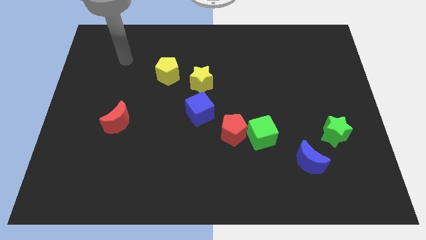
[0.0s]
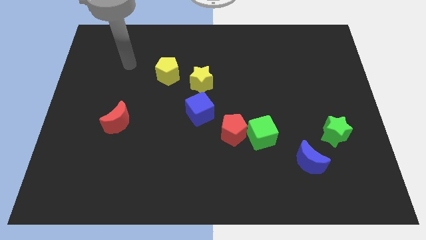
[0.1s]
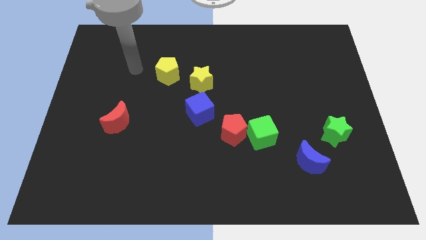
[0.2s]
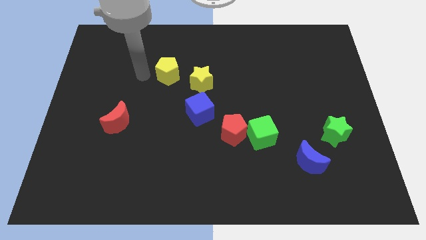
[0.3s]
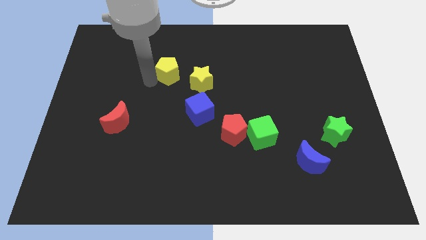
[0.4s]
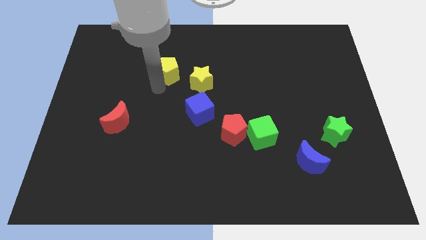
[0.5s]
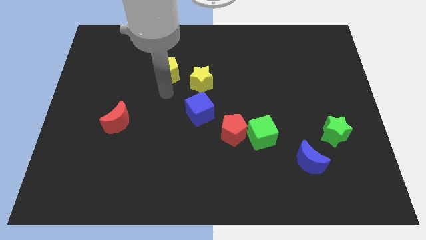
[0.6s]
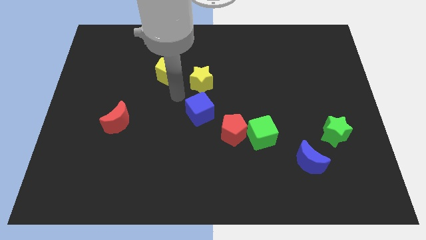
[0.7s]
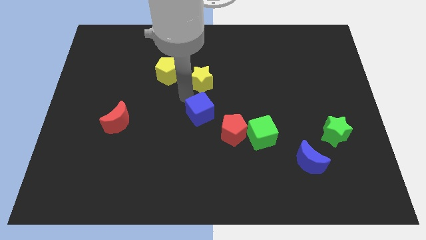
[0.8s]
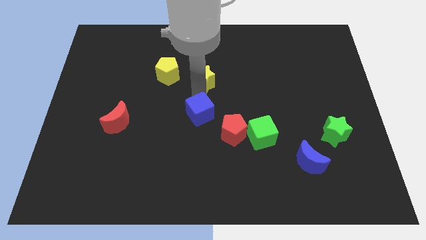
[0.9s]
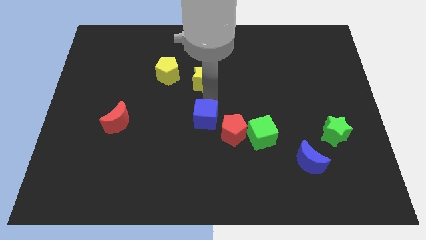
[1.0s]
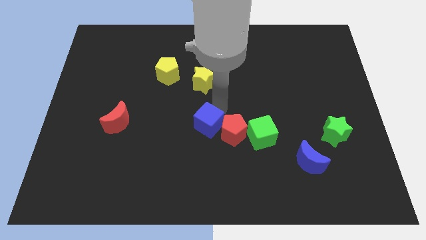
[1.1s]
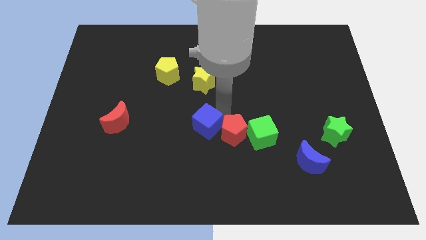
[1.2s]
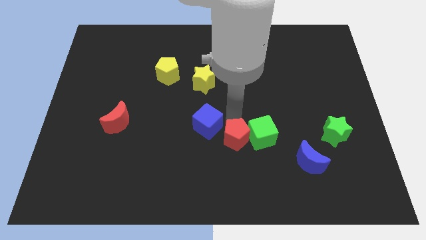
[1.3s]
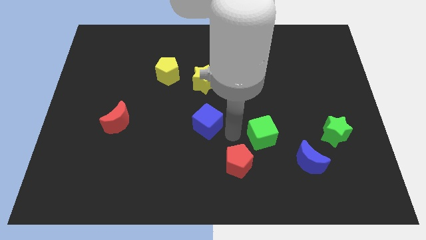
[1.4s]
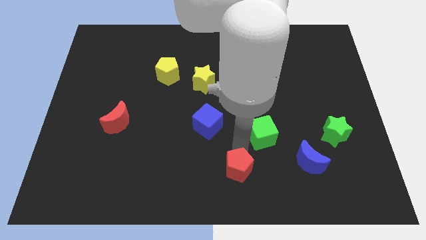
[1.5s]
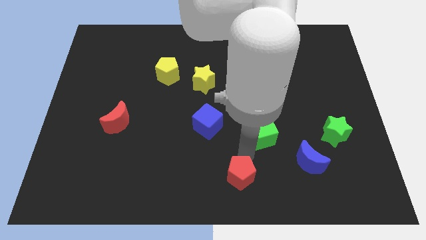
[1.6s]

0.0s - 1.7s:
move the green cube away from the red pentagon

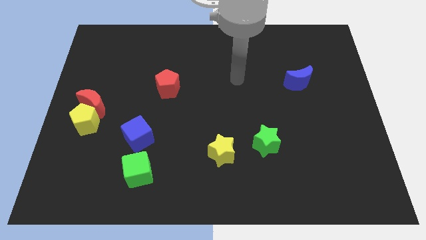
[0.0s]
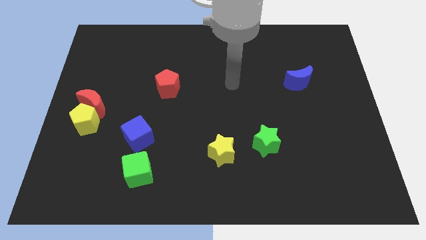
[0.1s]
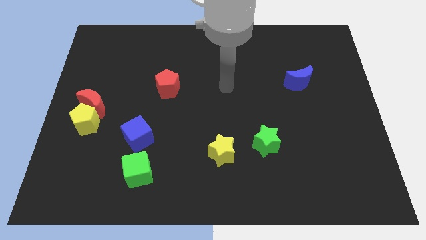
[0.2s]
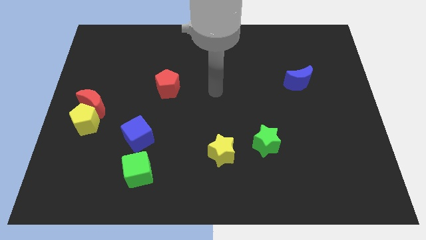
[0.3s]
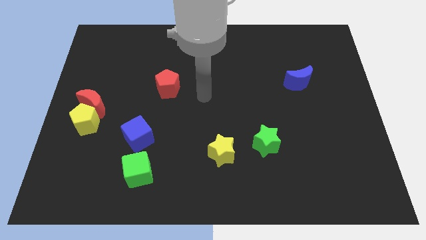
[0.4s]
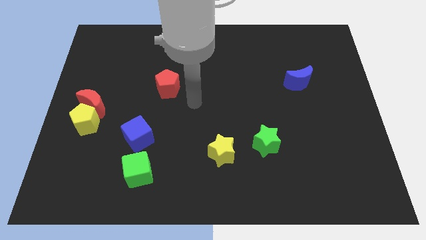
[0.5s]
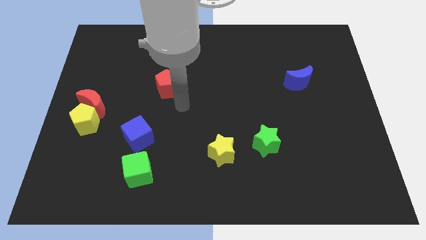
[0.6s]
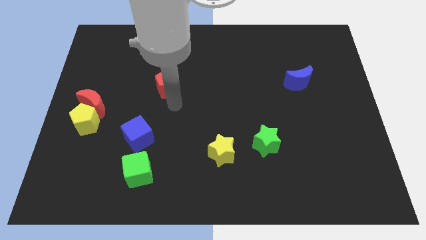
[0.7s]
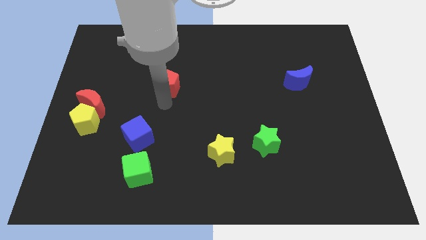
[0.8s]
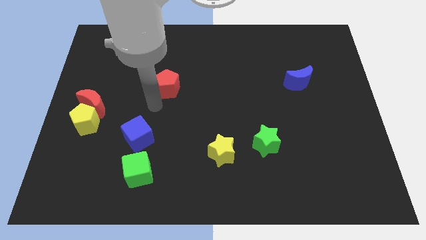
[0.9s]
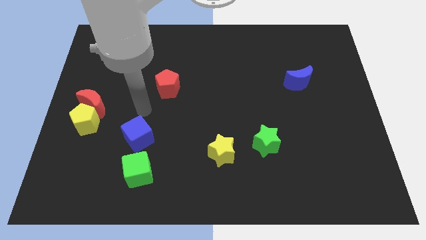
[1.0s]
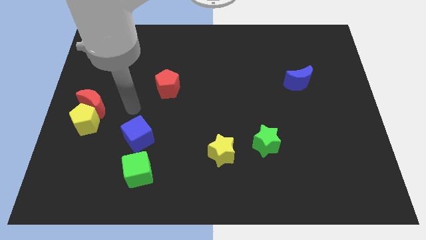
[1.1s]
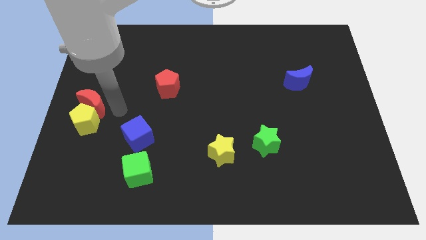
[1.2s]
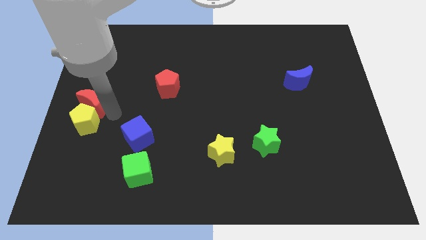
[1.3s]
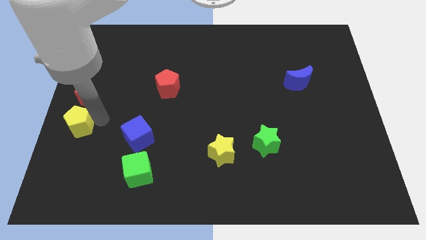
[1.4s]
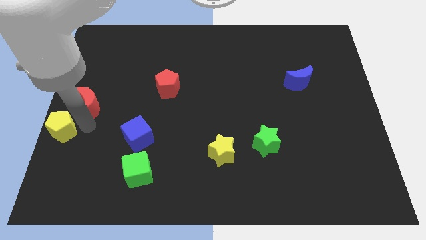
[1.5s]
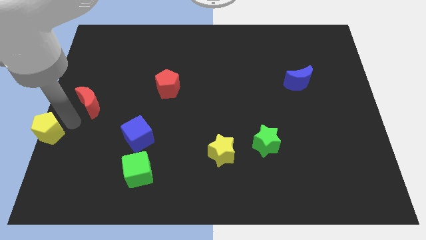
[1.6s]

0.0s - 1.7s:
pull the red moon apart from the yellow pentagon

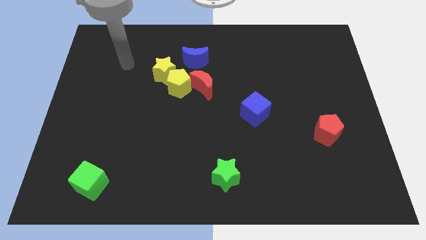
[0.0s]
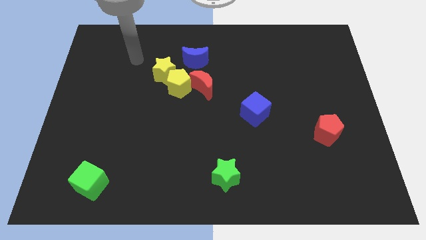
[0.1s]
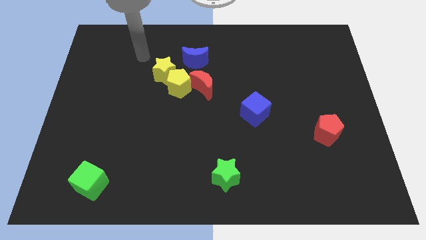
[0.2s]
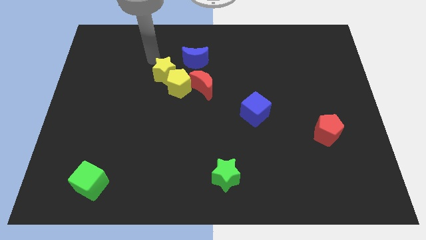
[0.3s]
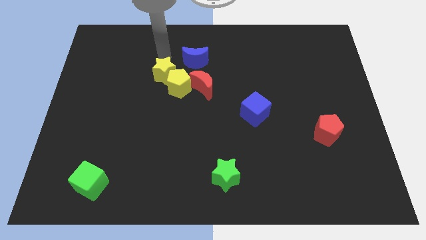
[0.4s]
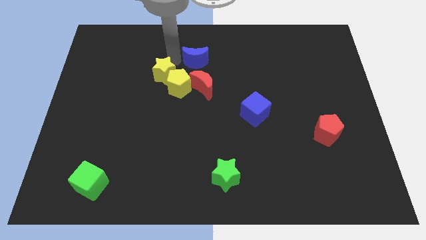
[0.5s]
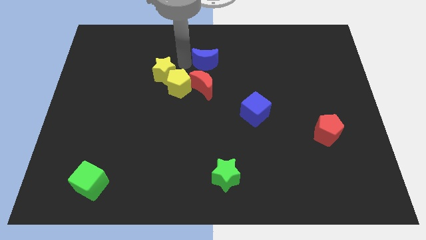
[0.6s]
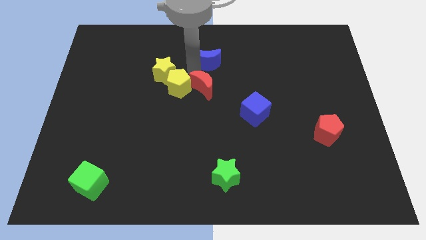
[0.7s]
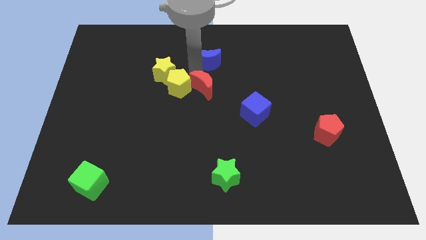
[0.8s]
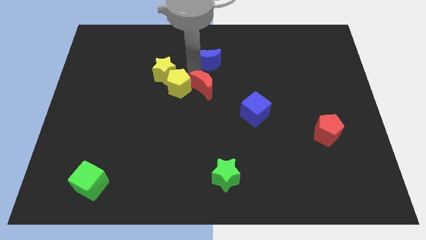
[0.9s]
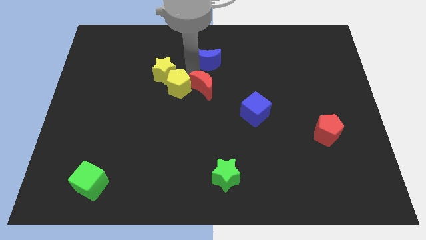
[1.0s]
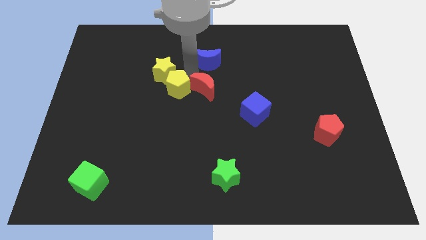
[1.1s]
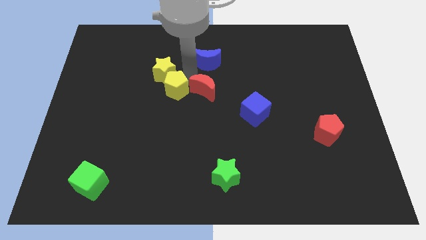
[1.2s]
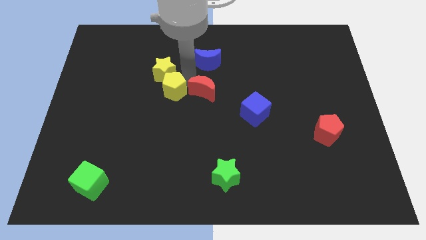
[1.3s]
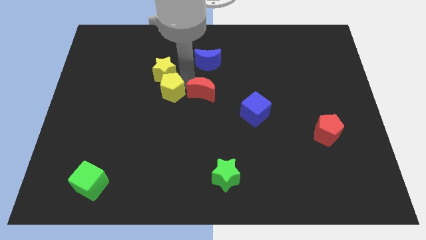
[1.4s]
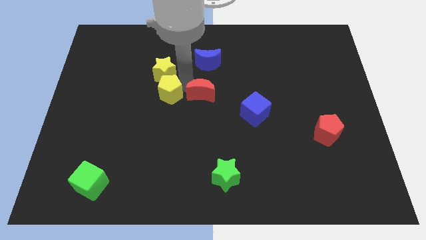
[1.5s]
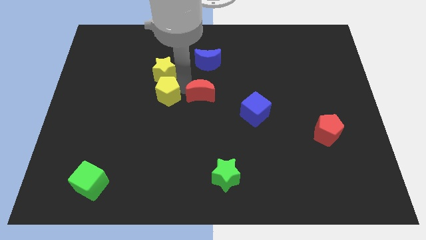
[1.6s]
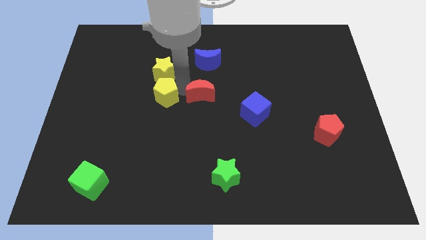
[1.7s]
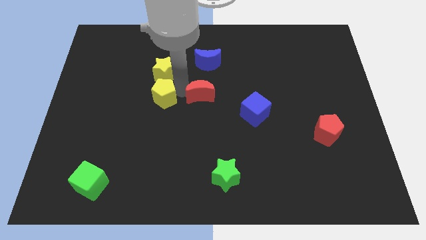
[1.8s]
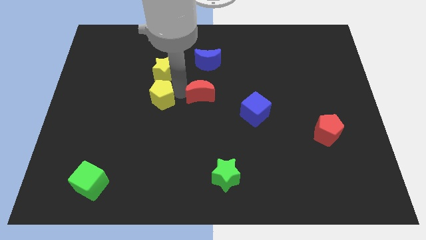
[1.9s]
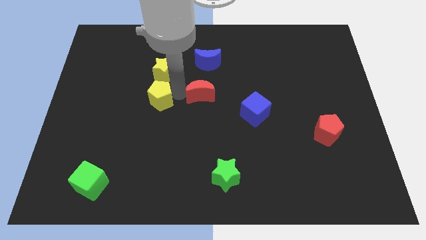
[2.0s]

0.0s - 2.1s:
move the yellow pentagon away from the yellow star, red moon, and blue moon

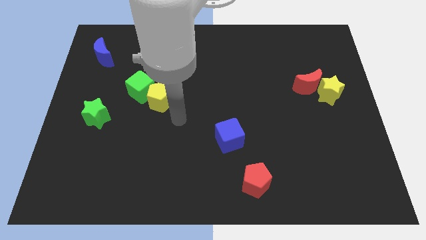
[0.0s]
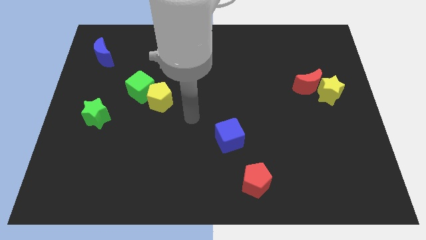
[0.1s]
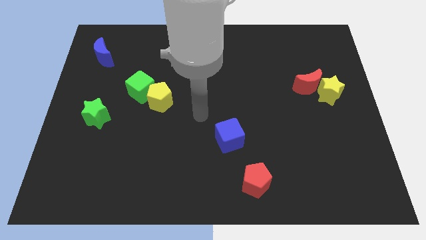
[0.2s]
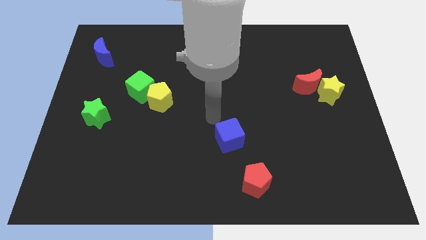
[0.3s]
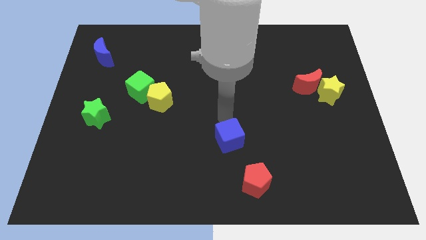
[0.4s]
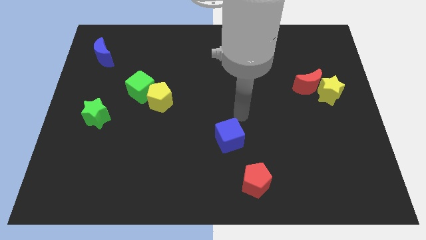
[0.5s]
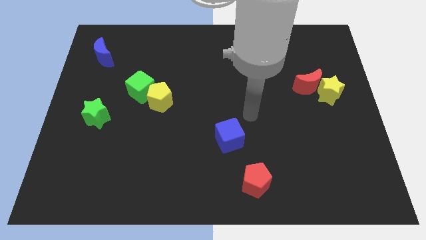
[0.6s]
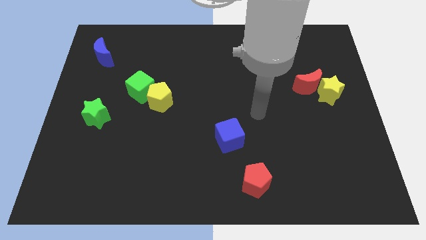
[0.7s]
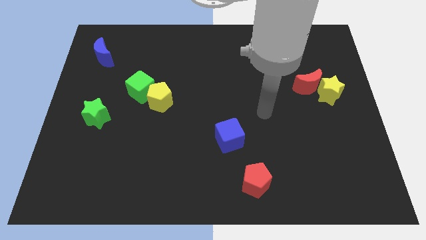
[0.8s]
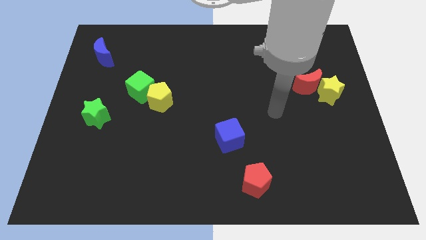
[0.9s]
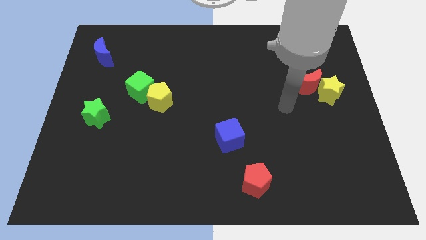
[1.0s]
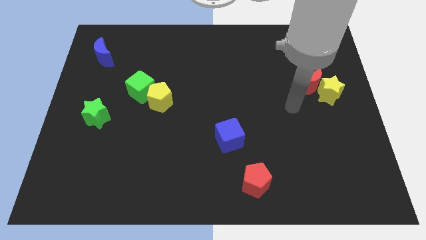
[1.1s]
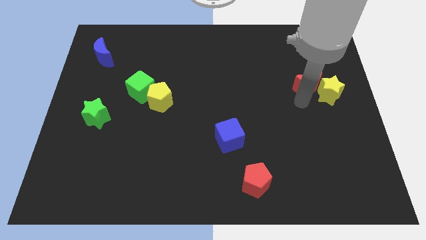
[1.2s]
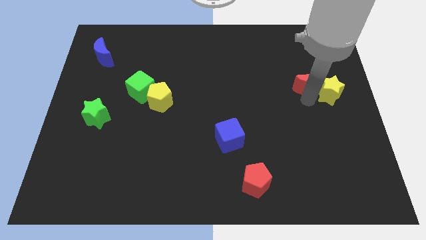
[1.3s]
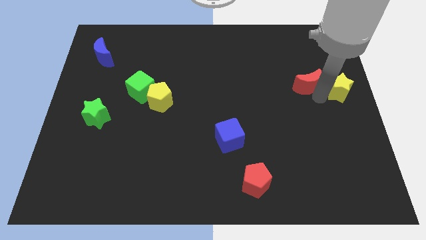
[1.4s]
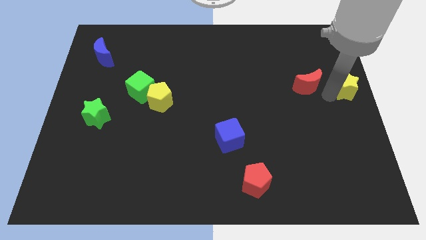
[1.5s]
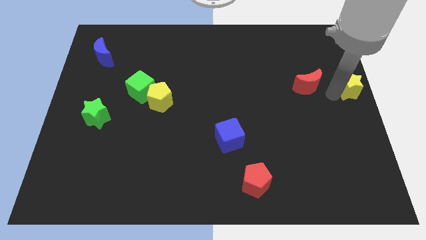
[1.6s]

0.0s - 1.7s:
pull the red moon apart from the yellow star

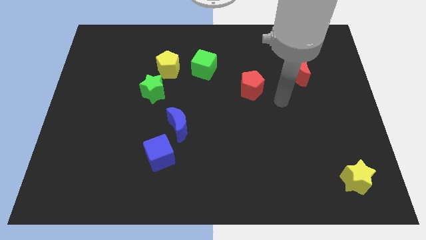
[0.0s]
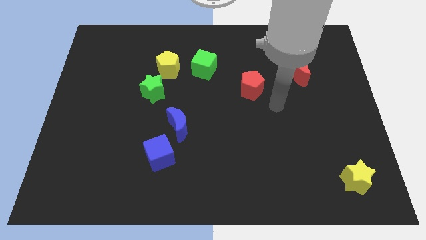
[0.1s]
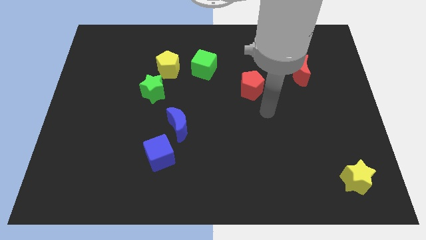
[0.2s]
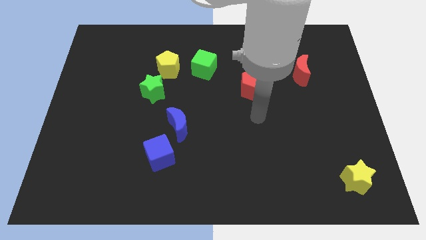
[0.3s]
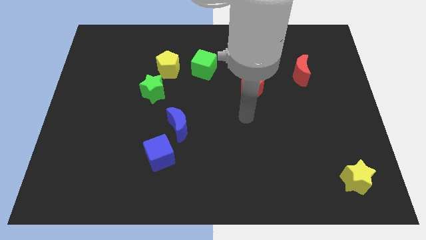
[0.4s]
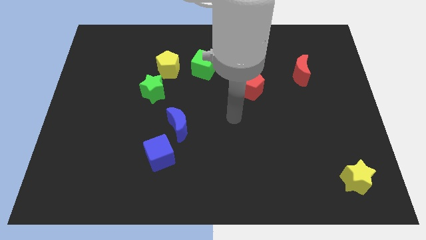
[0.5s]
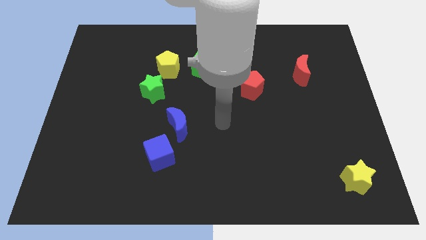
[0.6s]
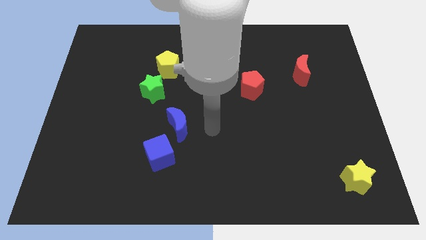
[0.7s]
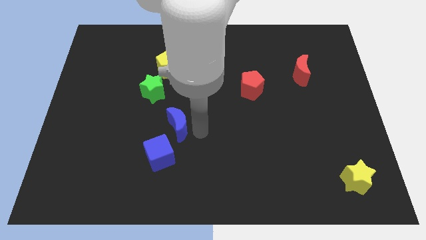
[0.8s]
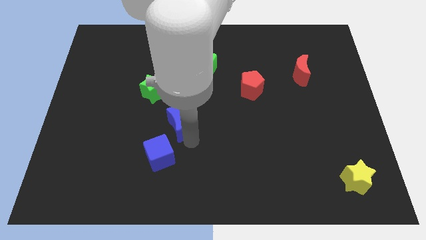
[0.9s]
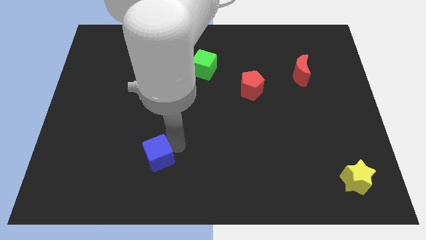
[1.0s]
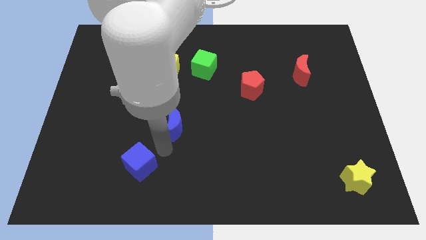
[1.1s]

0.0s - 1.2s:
move the blue moon away from the blue cube

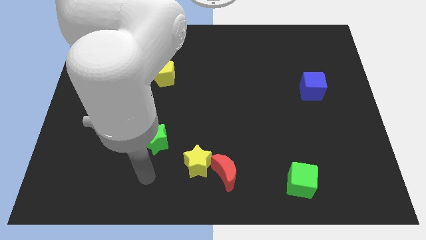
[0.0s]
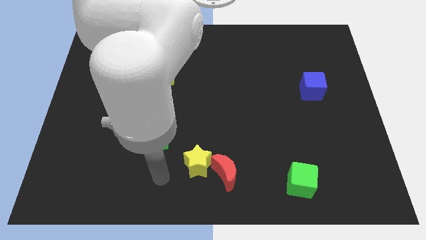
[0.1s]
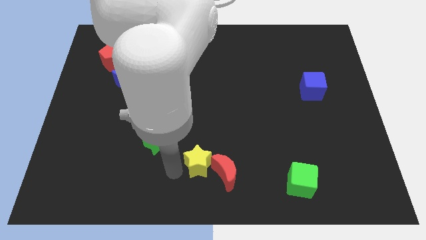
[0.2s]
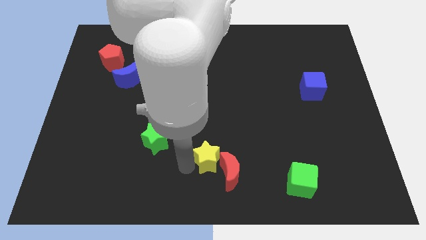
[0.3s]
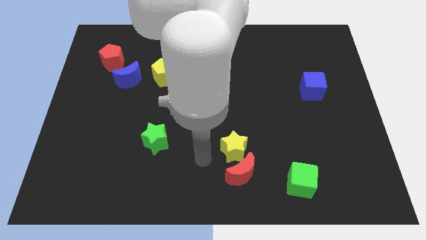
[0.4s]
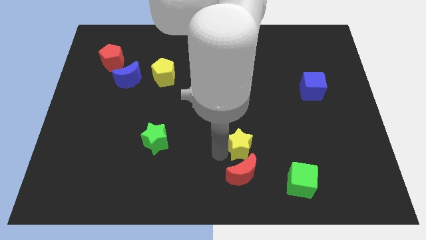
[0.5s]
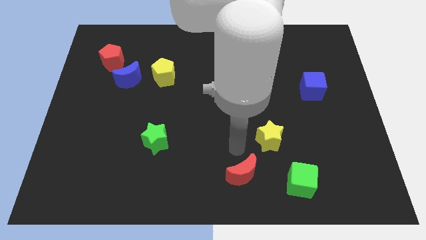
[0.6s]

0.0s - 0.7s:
separate the red moon from the yellow star

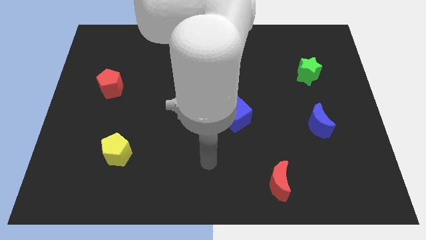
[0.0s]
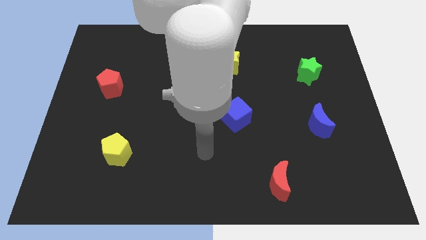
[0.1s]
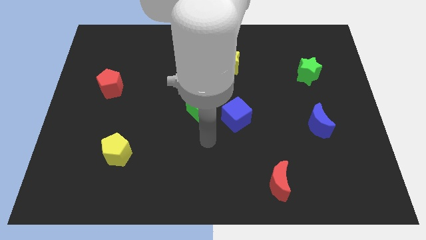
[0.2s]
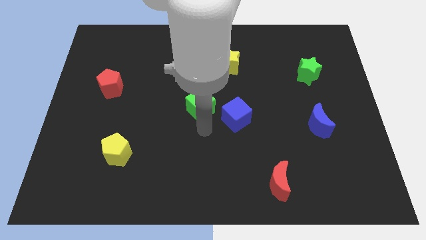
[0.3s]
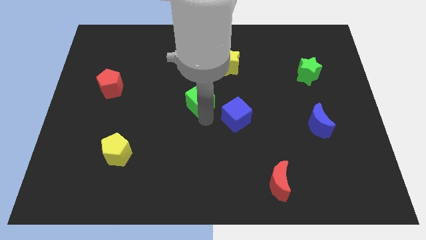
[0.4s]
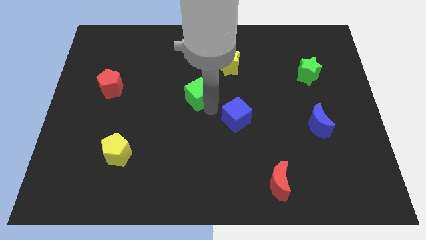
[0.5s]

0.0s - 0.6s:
pull the blue cube apart from the green cube
